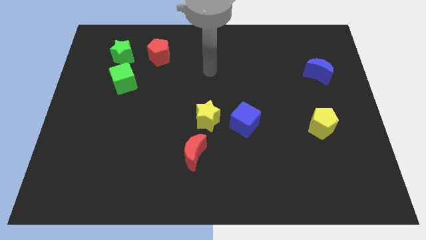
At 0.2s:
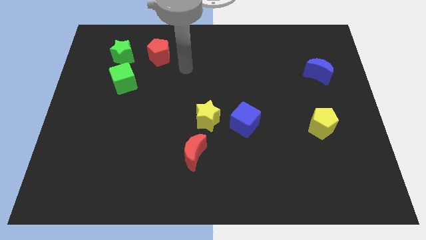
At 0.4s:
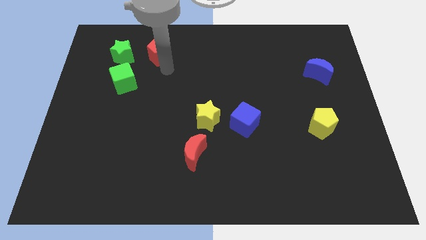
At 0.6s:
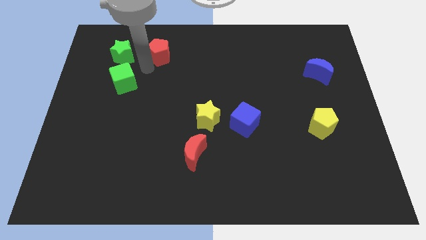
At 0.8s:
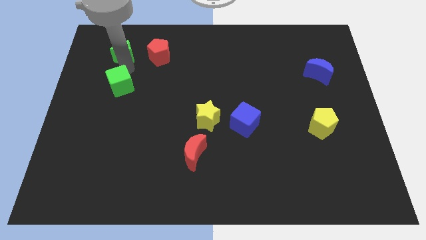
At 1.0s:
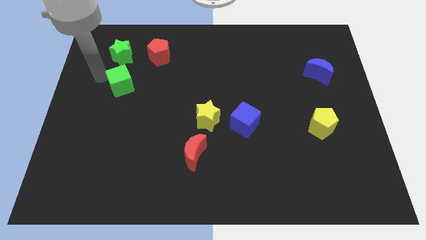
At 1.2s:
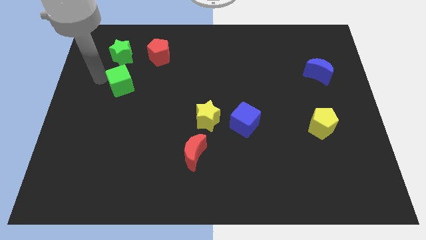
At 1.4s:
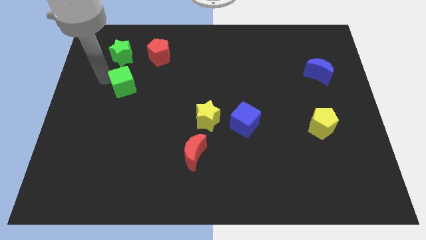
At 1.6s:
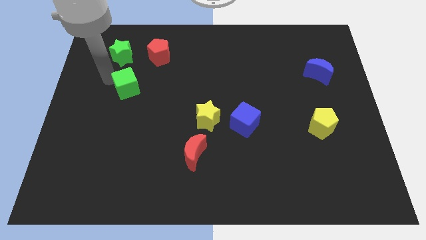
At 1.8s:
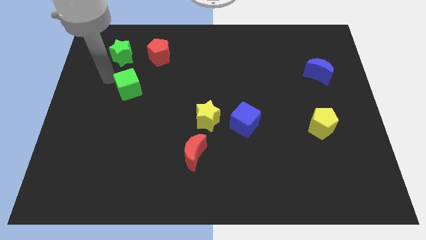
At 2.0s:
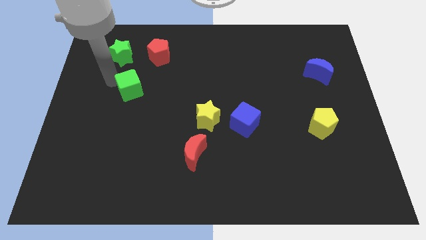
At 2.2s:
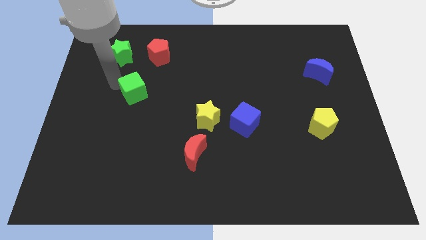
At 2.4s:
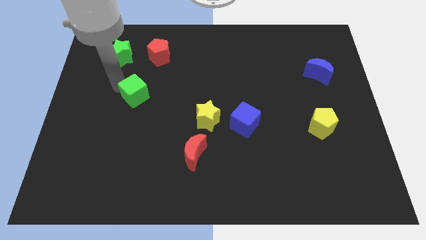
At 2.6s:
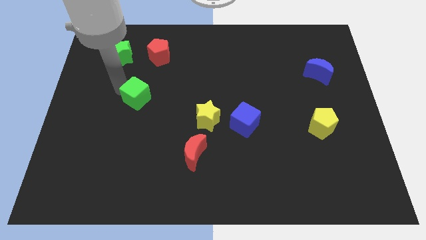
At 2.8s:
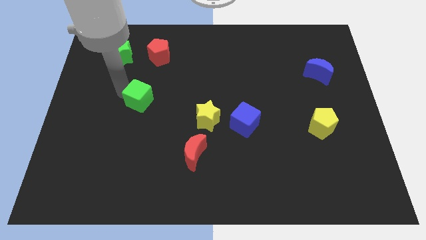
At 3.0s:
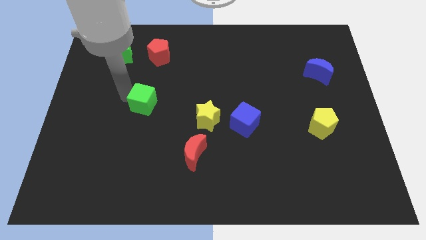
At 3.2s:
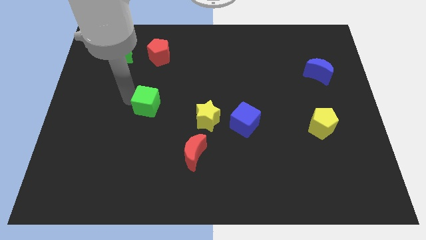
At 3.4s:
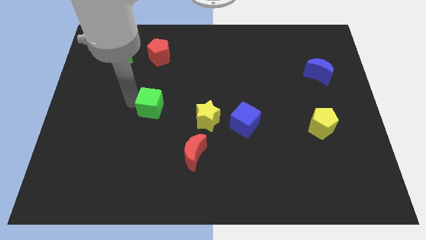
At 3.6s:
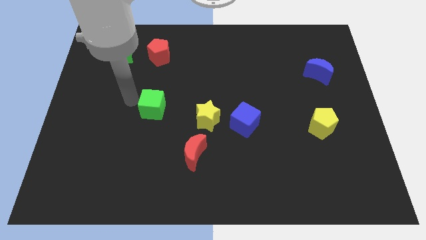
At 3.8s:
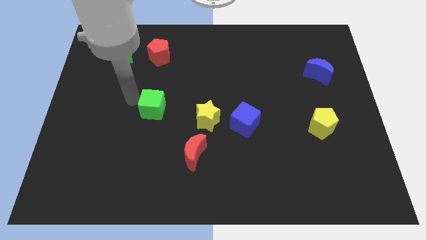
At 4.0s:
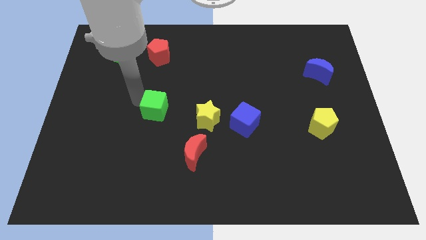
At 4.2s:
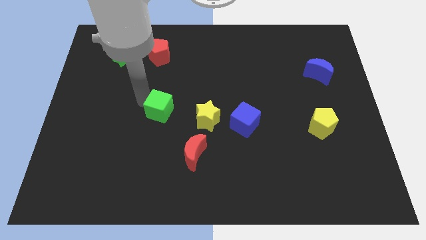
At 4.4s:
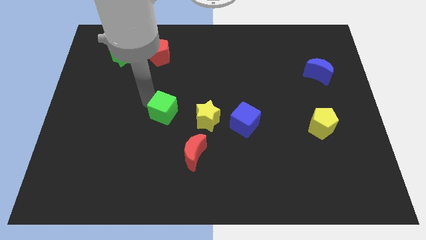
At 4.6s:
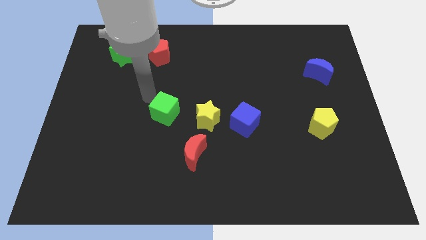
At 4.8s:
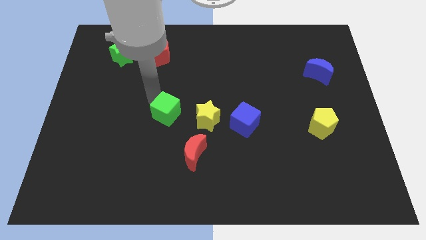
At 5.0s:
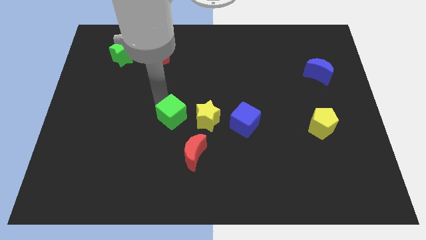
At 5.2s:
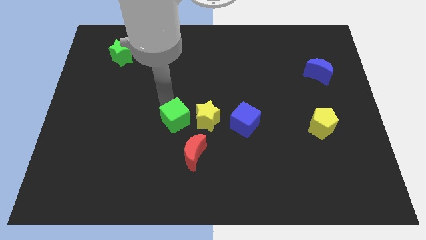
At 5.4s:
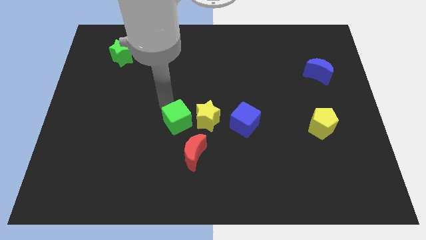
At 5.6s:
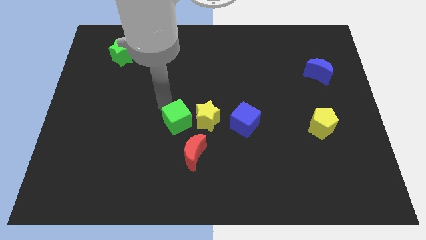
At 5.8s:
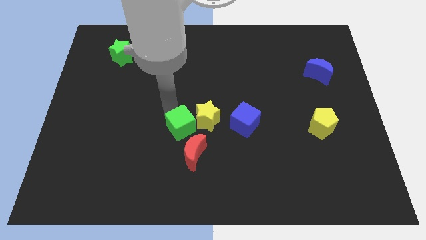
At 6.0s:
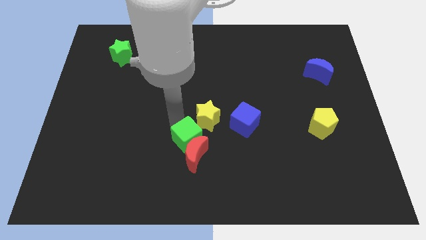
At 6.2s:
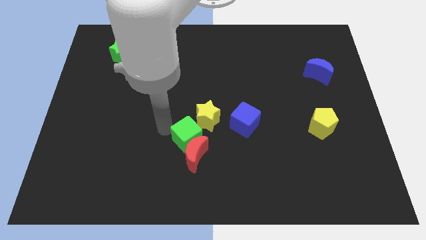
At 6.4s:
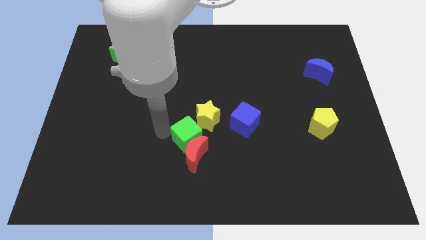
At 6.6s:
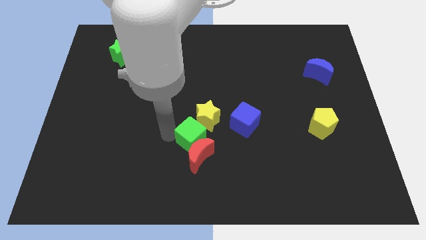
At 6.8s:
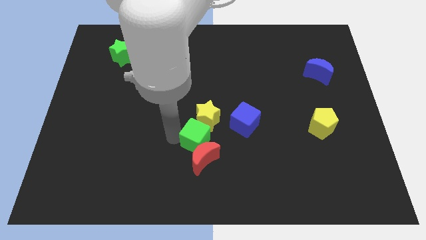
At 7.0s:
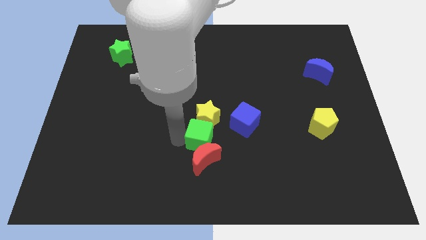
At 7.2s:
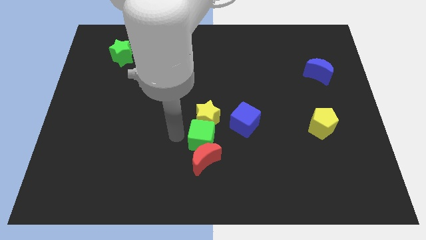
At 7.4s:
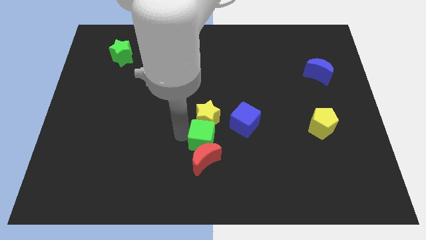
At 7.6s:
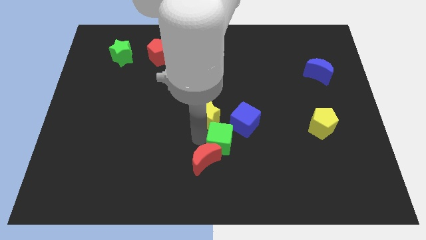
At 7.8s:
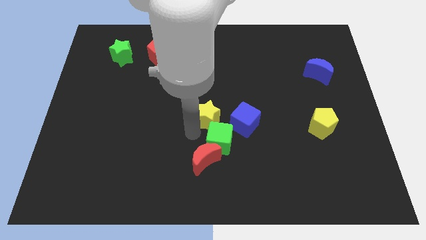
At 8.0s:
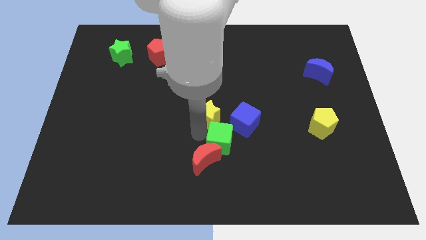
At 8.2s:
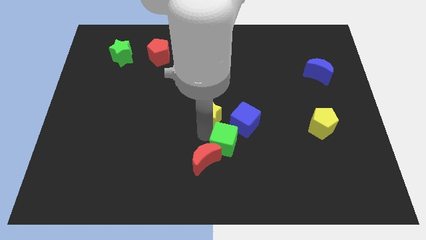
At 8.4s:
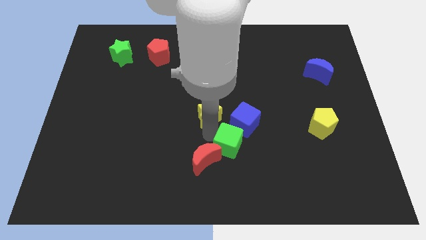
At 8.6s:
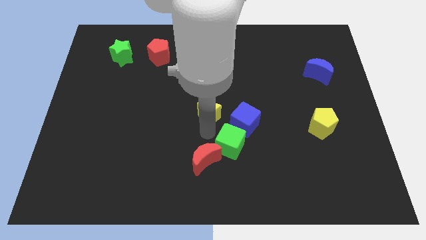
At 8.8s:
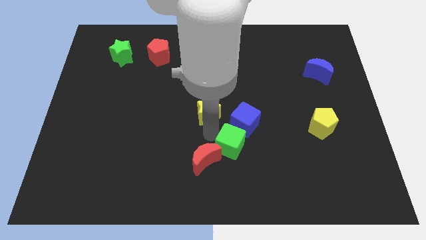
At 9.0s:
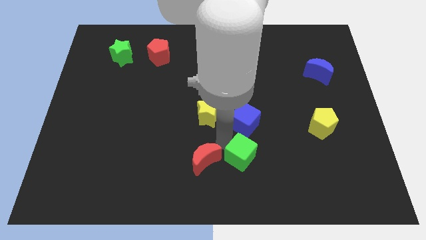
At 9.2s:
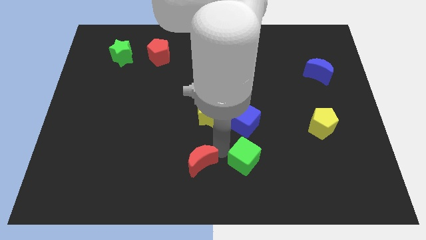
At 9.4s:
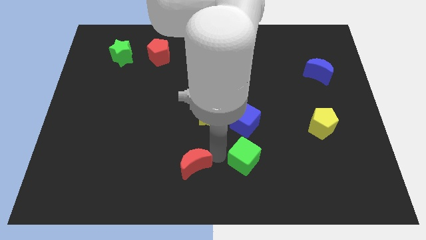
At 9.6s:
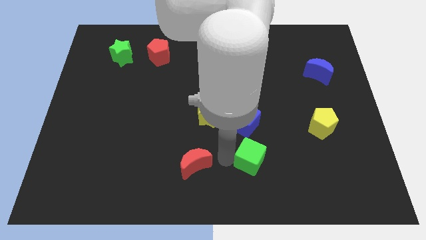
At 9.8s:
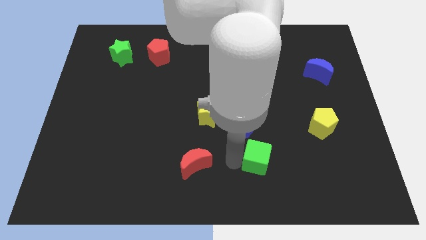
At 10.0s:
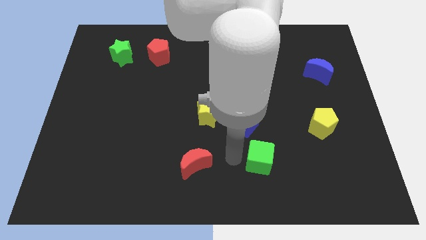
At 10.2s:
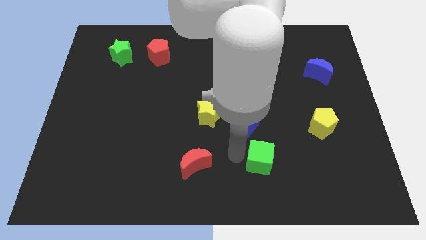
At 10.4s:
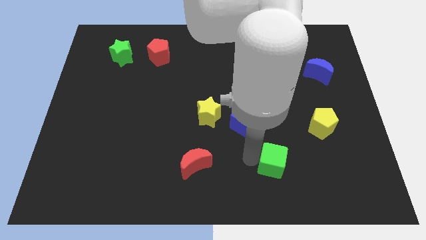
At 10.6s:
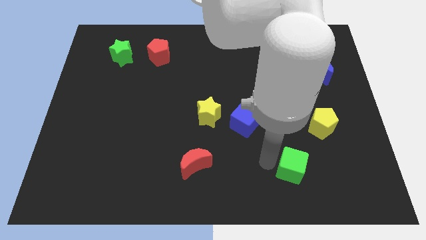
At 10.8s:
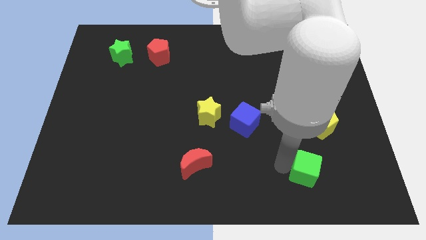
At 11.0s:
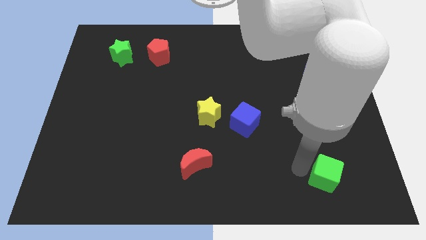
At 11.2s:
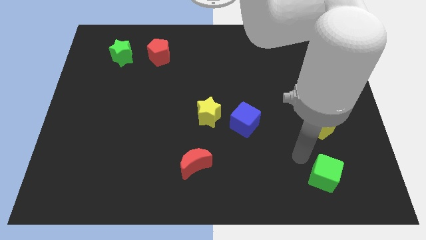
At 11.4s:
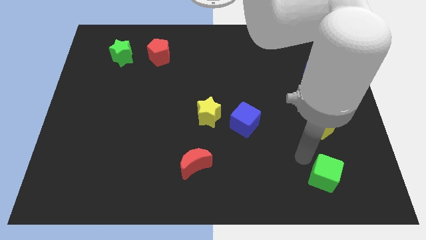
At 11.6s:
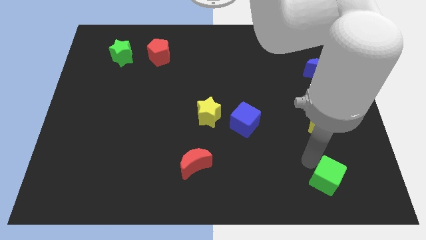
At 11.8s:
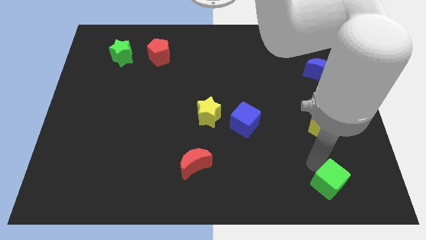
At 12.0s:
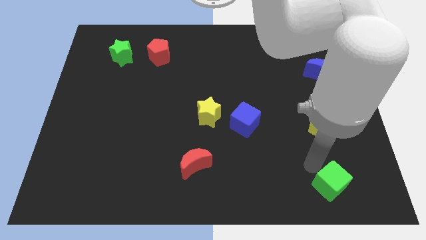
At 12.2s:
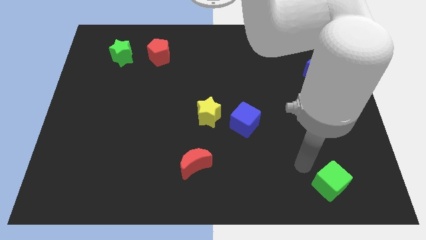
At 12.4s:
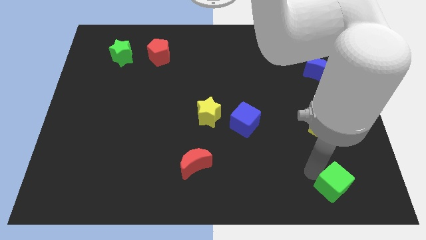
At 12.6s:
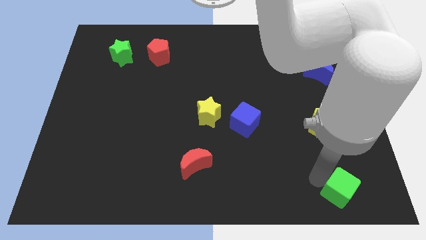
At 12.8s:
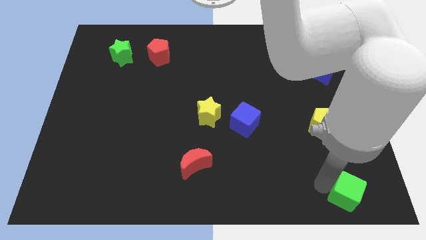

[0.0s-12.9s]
push the green cube to the bottom right corner
